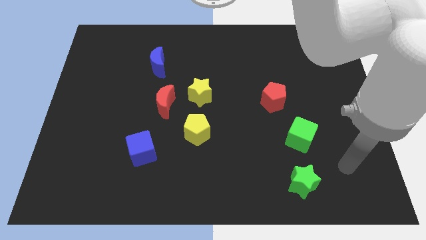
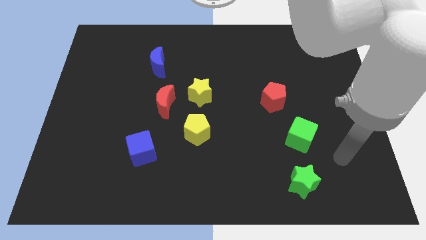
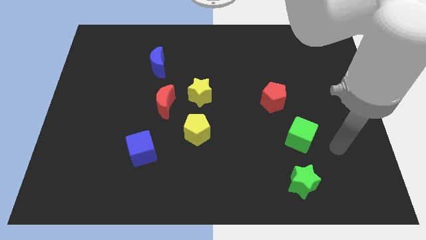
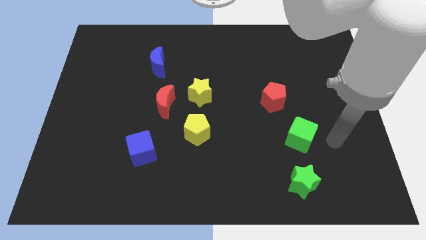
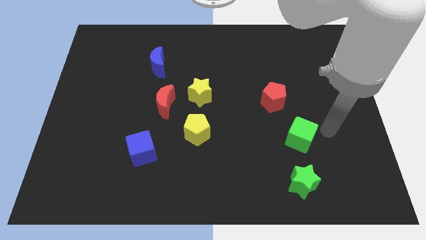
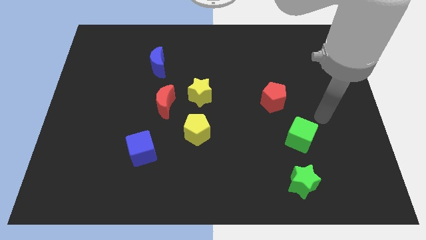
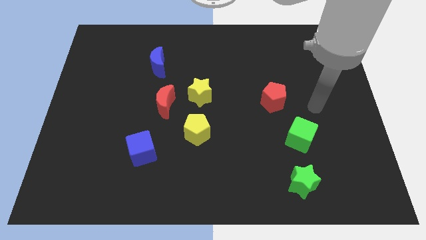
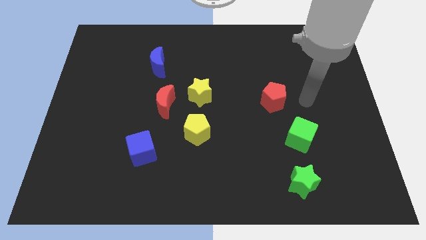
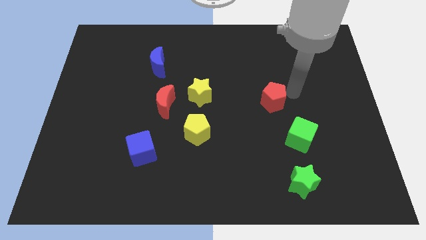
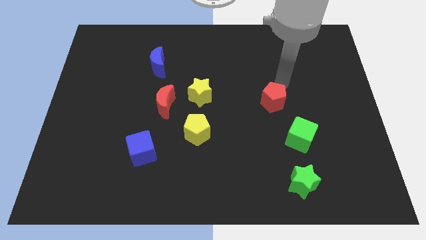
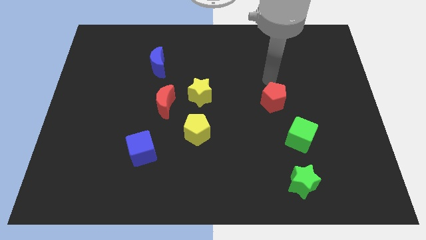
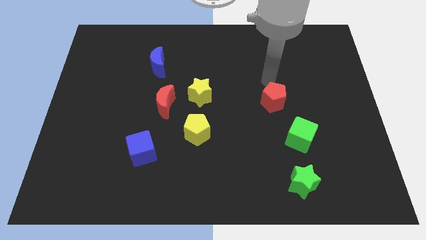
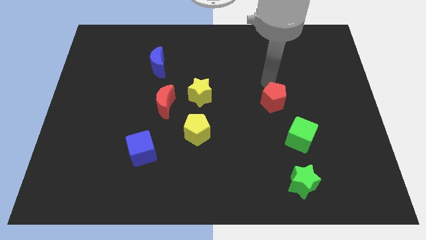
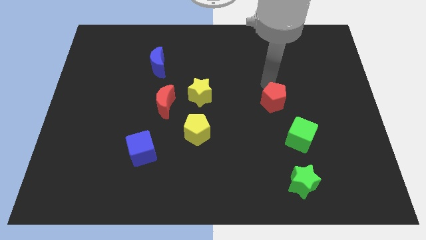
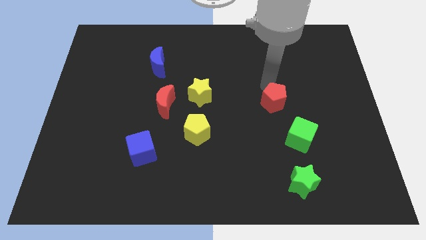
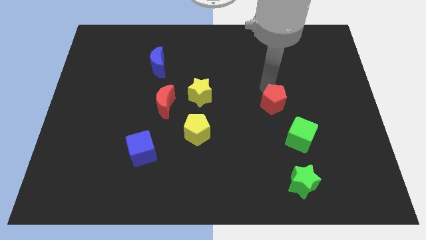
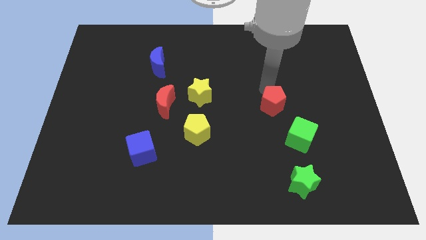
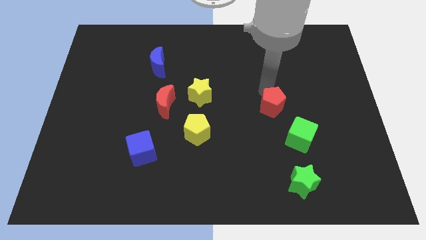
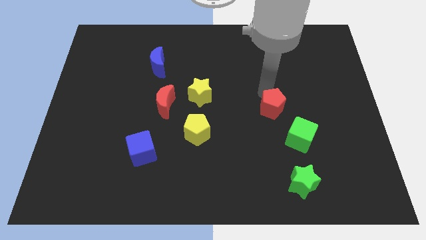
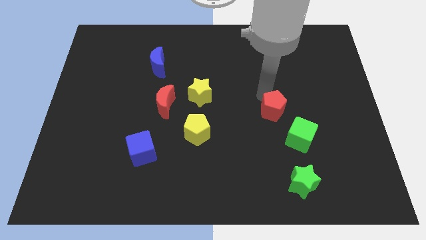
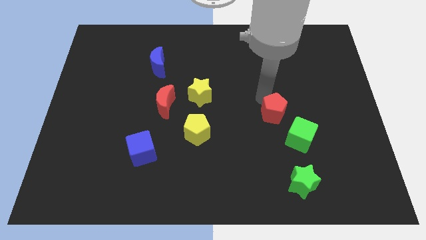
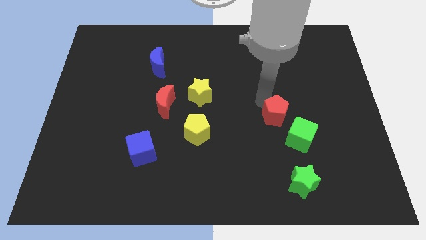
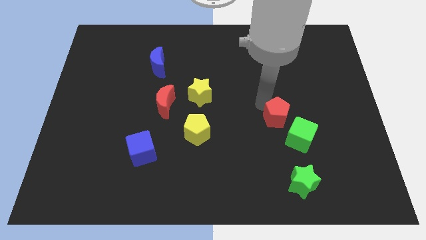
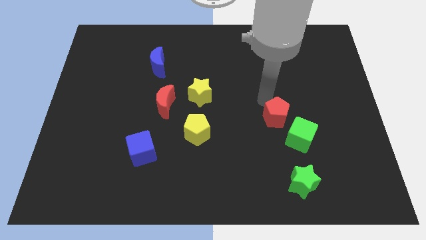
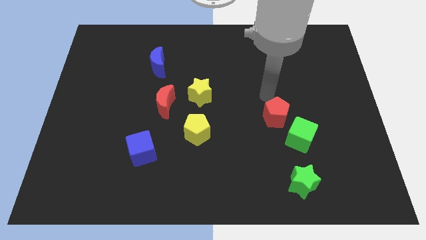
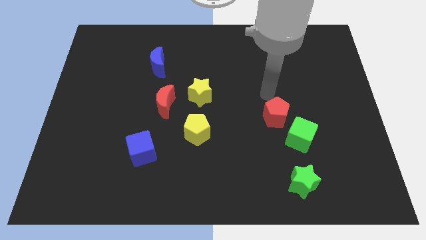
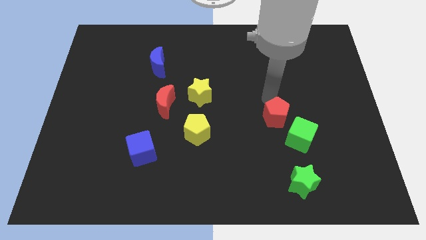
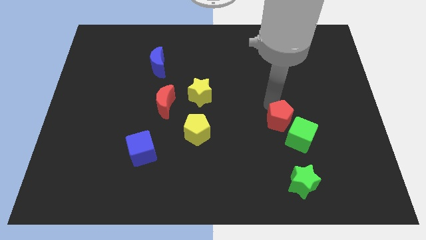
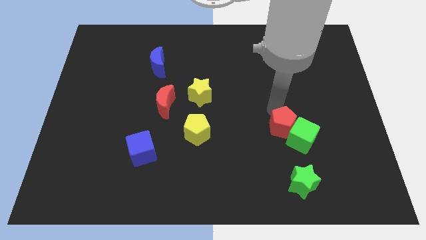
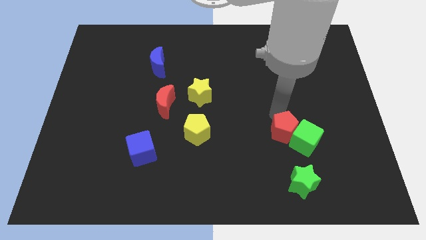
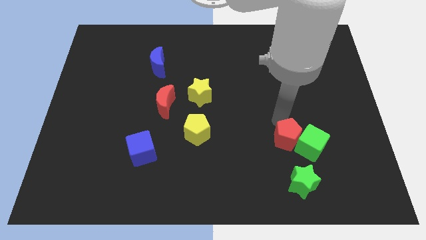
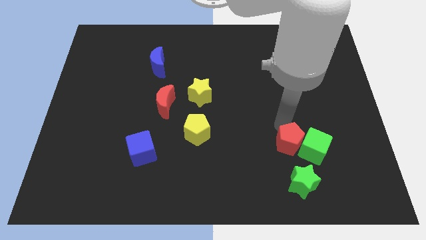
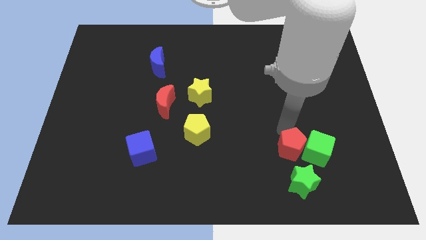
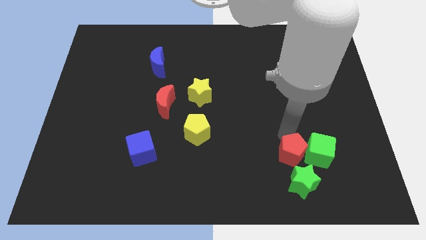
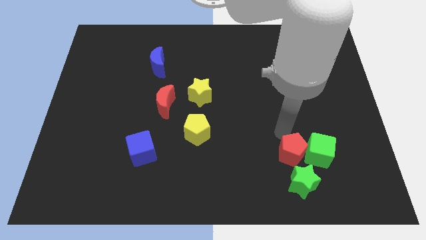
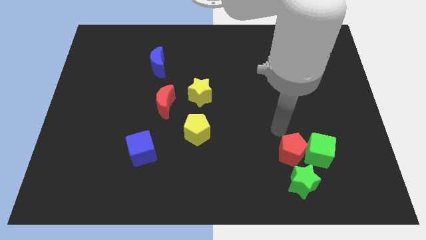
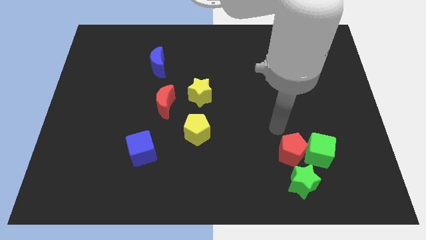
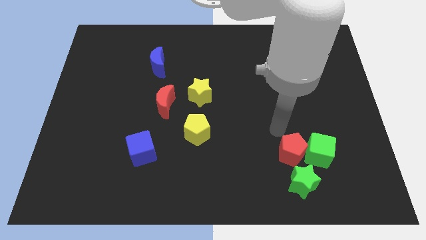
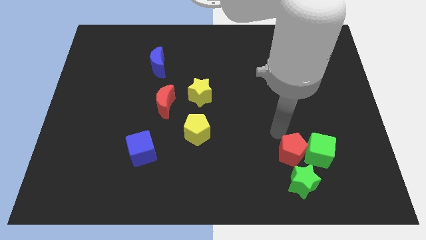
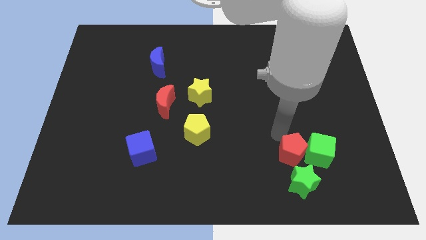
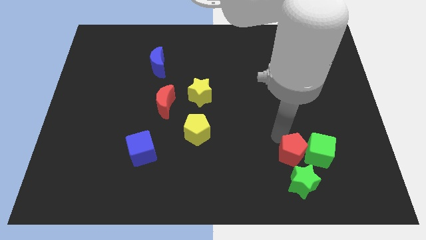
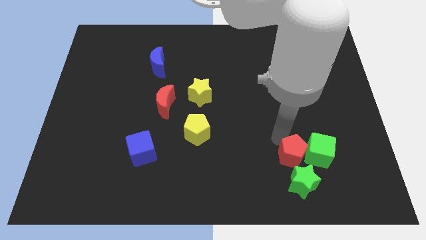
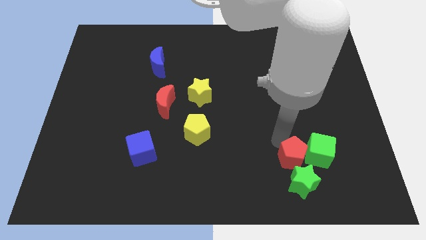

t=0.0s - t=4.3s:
put the red pentagon close to the green star

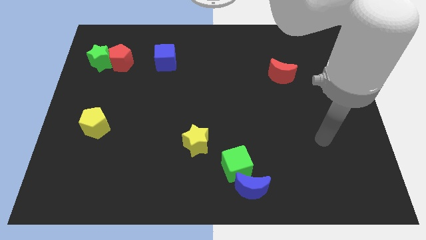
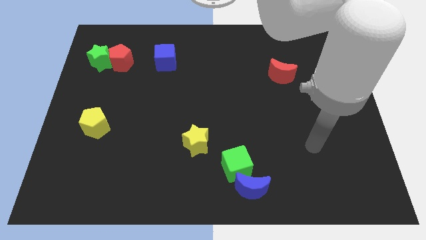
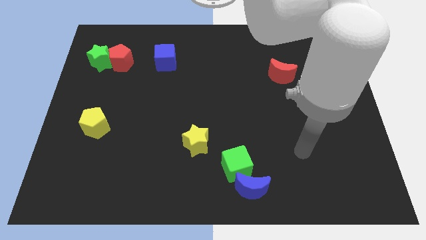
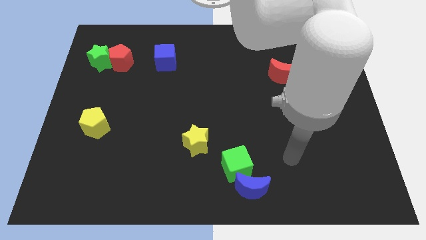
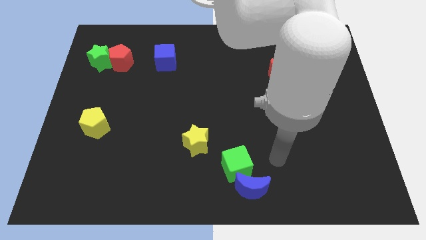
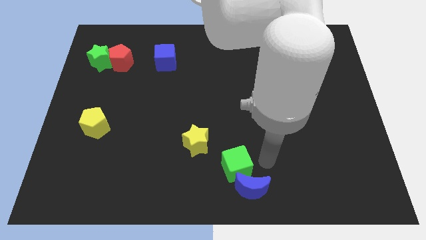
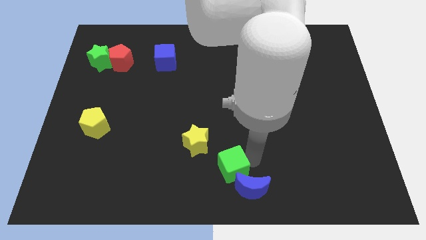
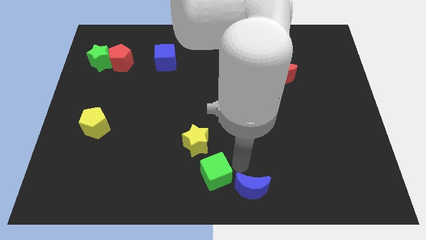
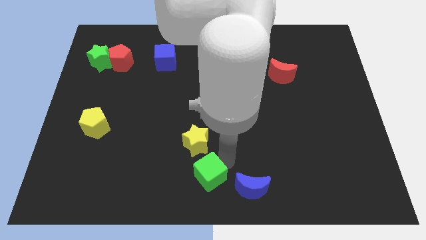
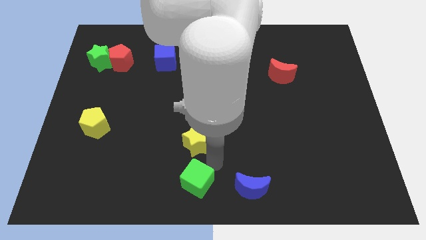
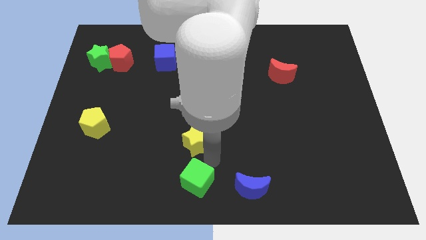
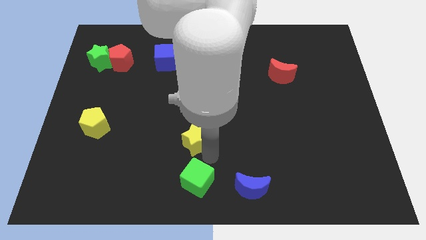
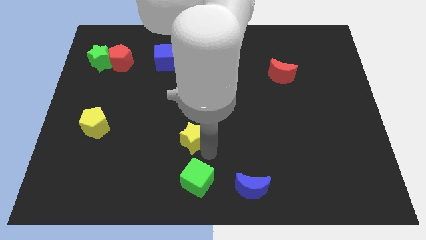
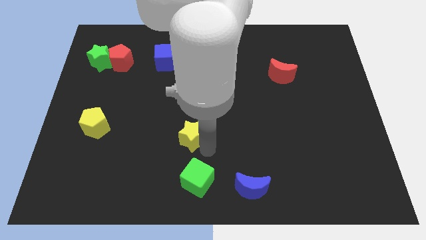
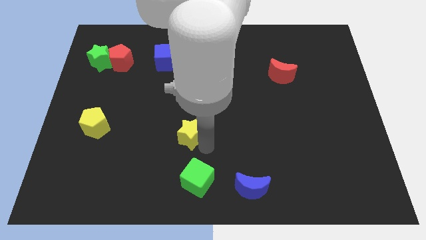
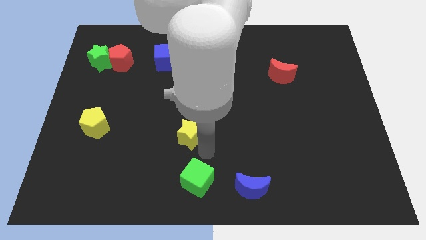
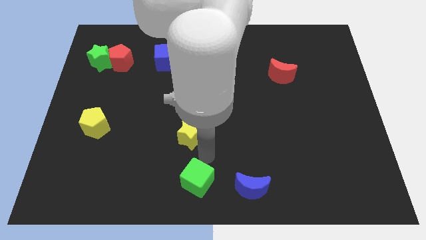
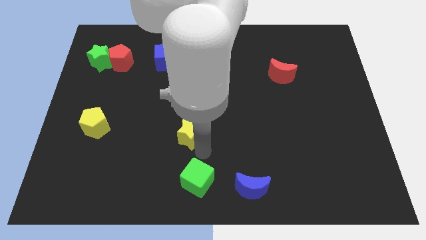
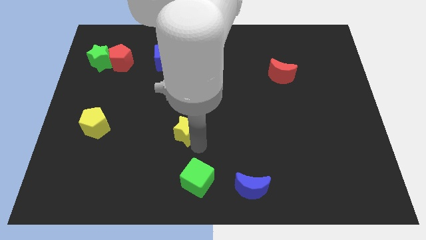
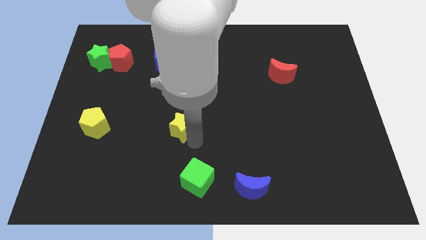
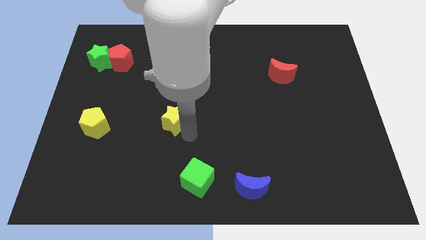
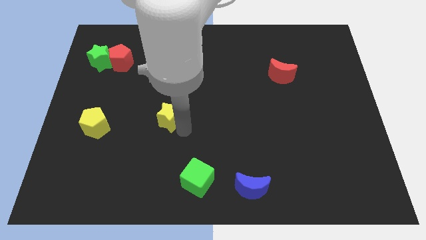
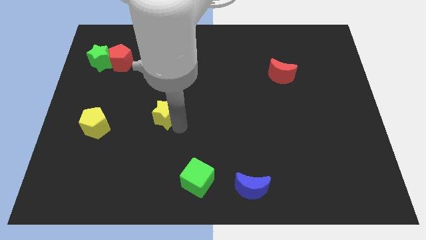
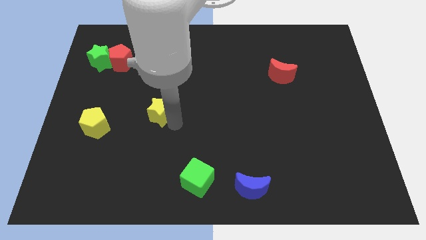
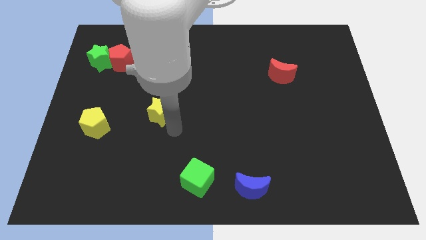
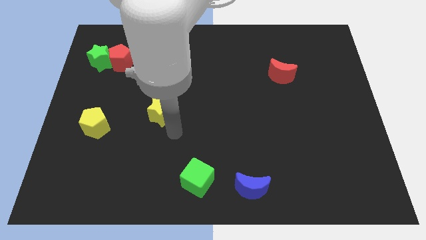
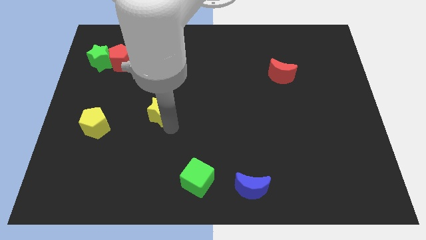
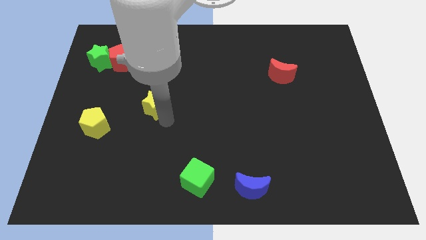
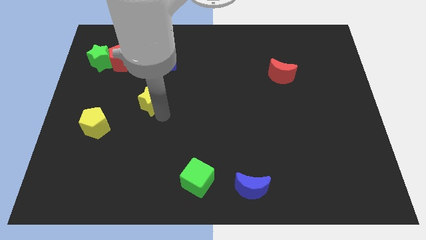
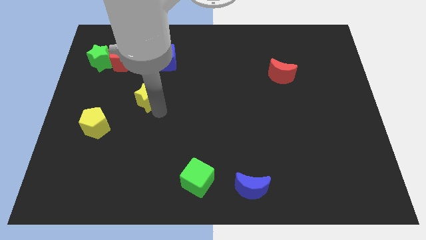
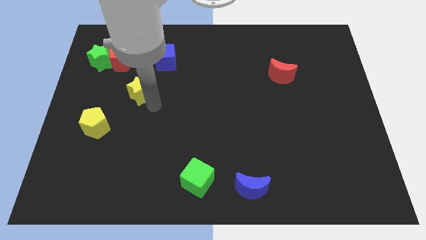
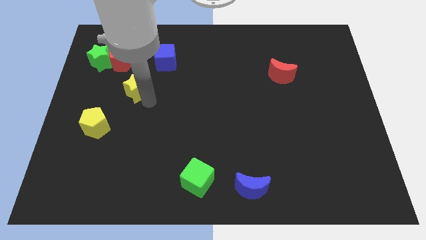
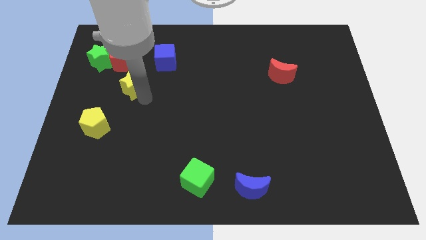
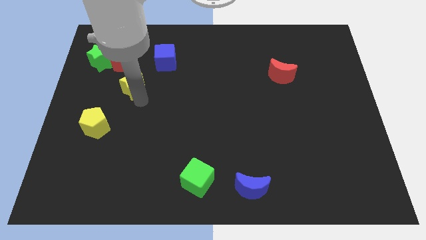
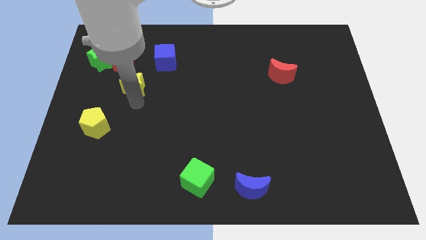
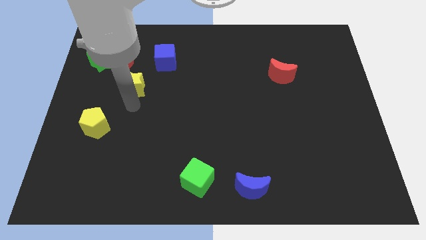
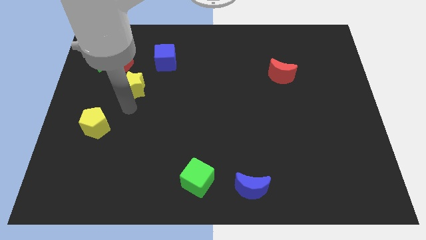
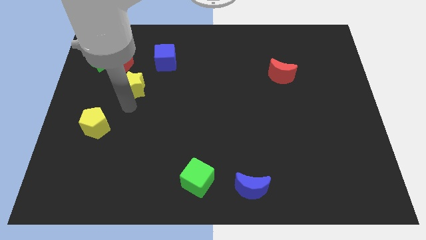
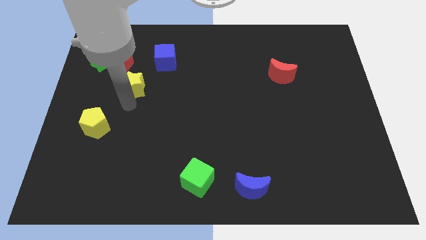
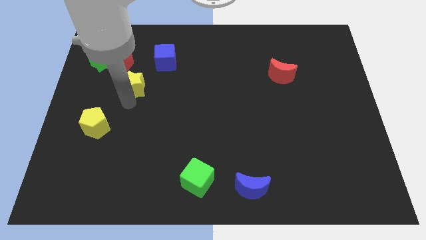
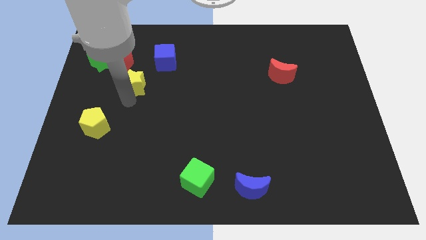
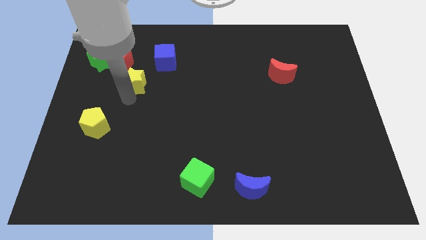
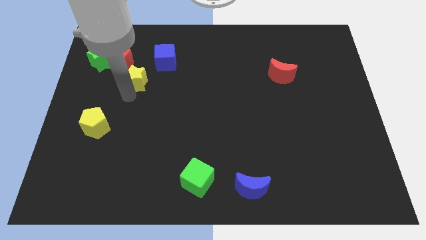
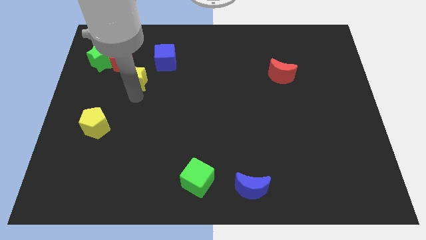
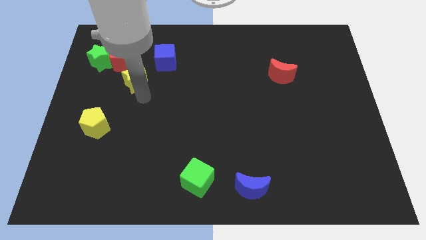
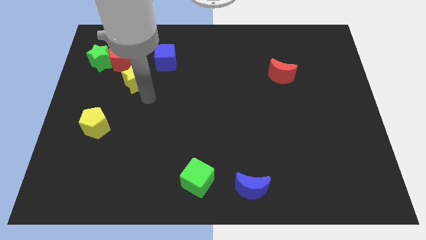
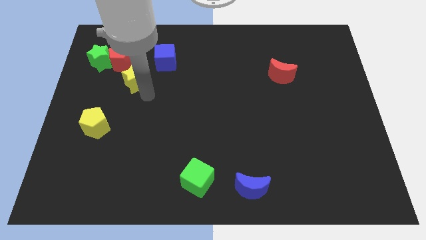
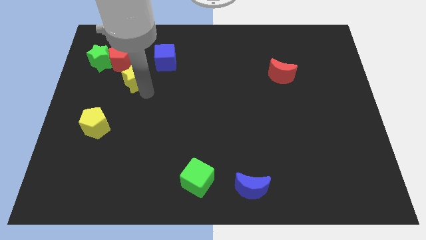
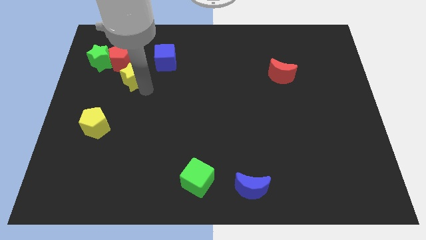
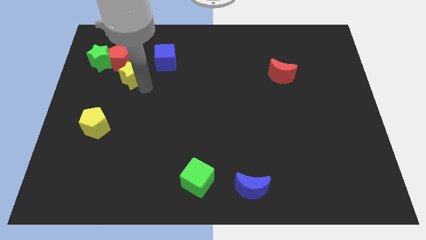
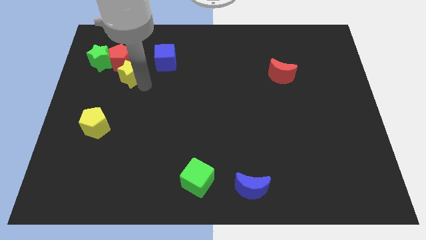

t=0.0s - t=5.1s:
slide the yellow star towards the red pentagon
